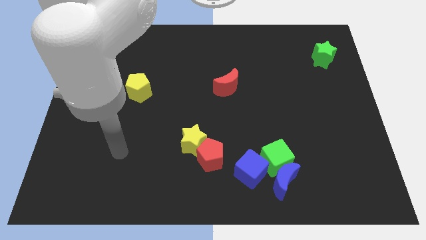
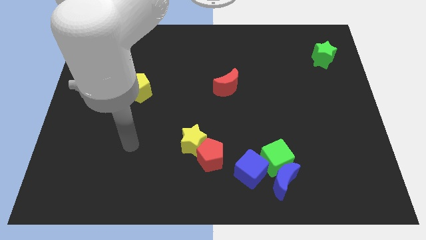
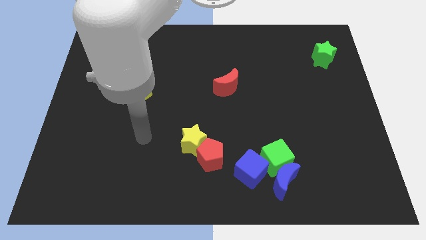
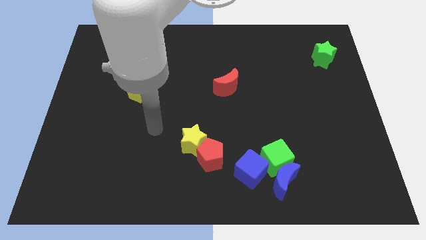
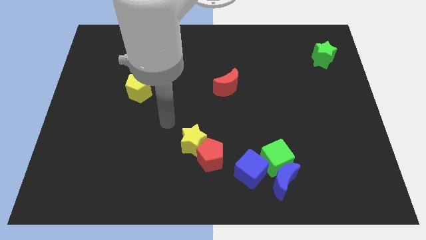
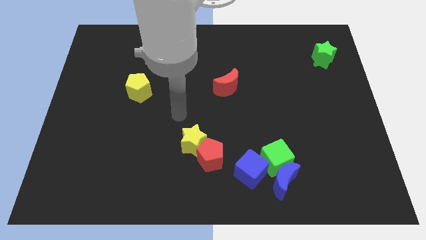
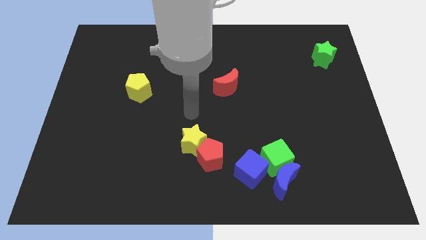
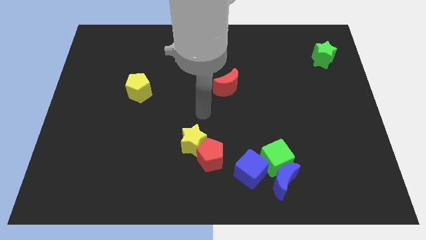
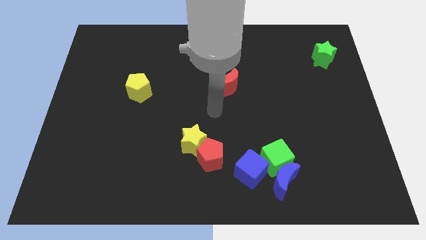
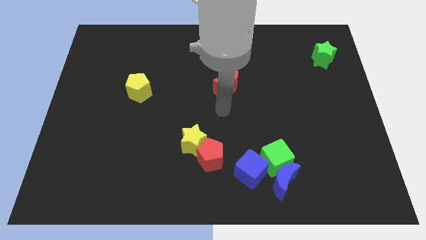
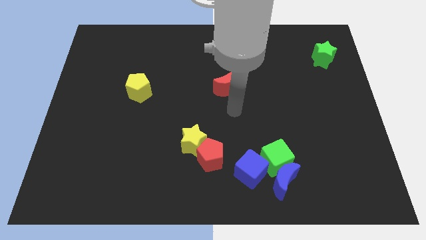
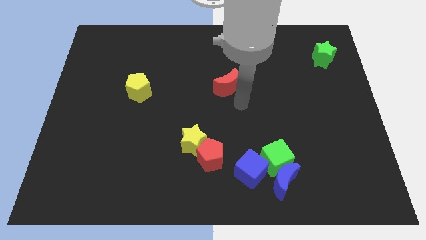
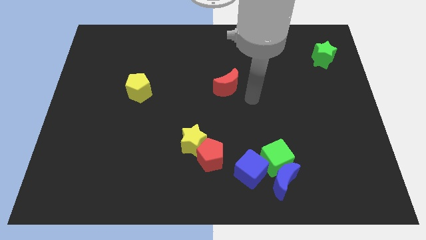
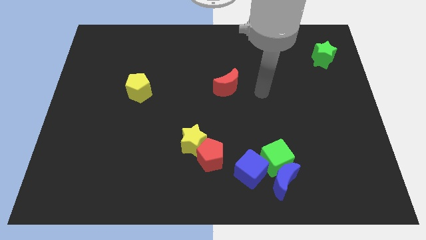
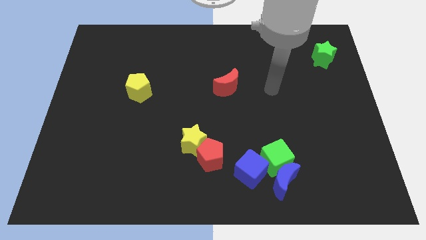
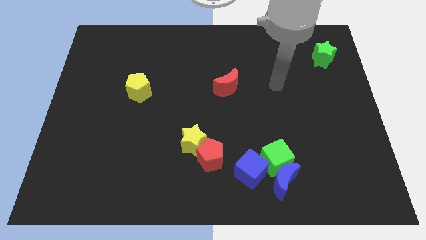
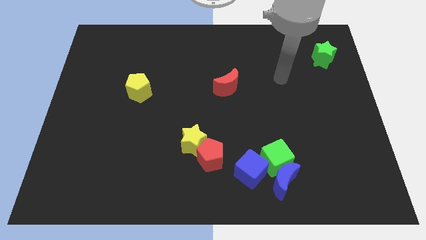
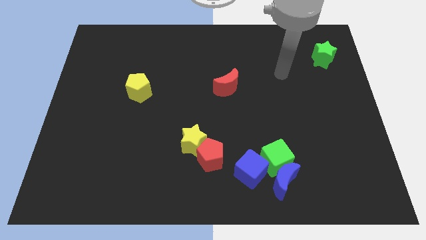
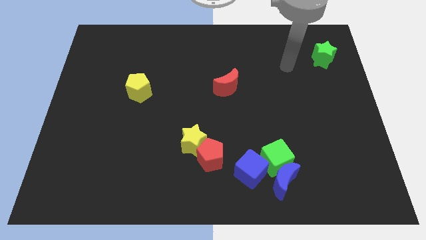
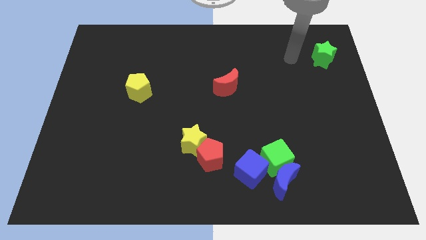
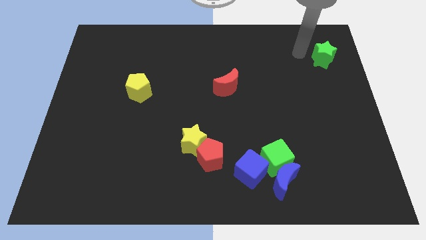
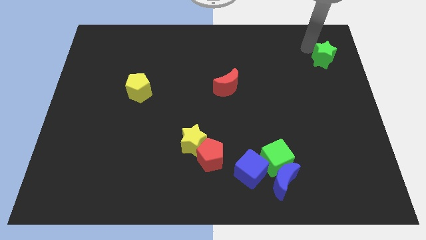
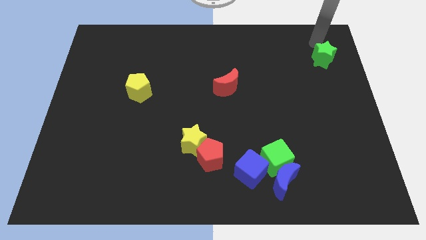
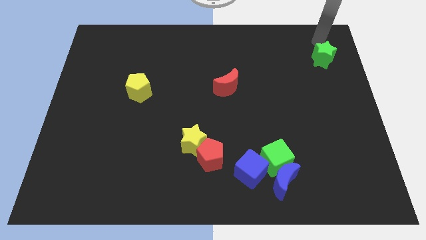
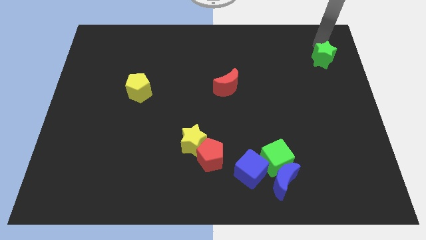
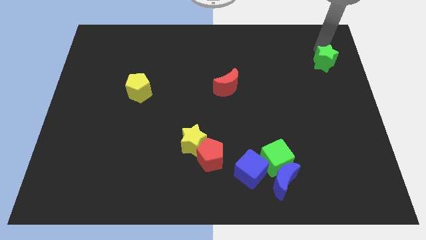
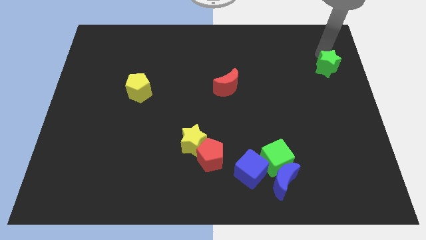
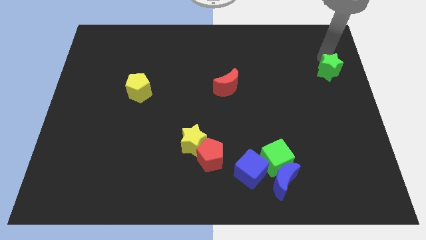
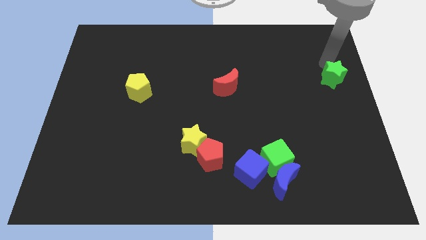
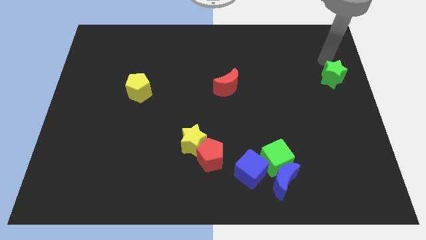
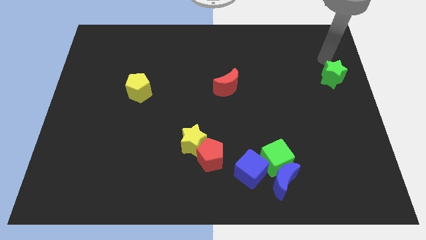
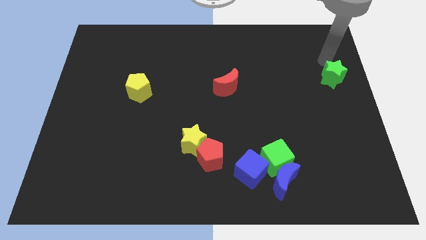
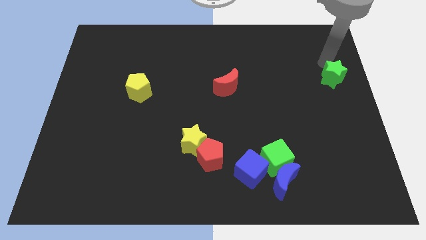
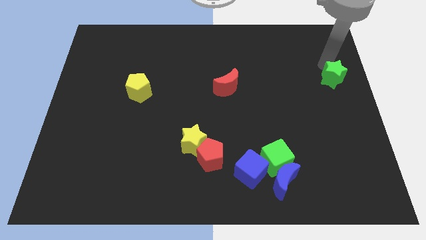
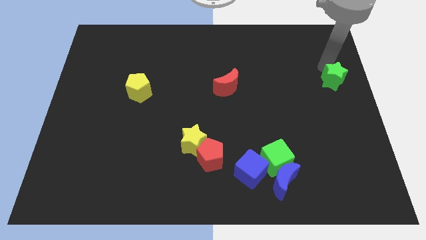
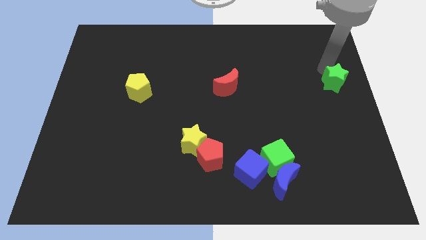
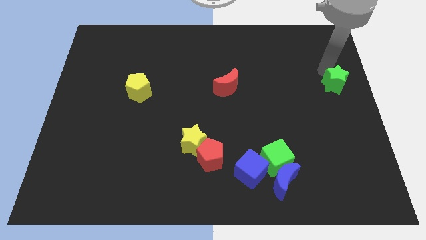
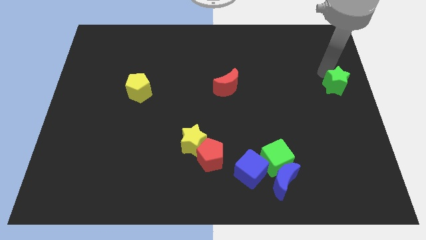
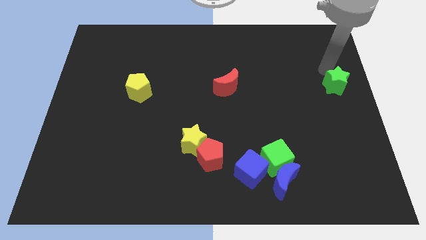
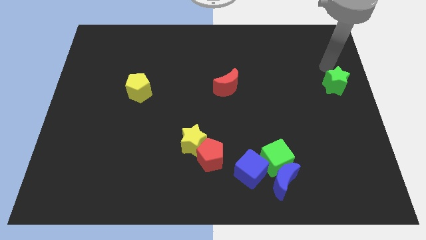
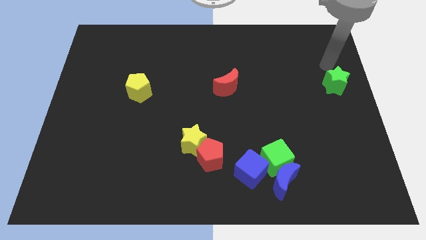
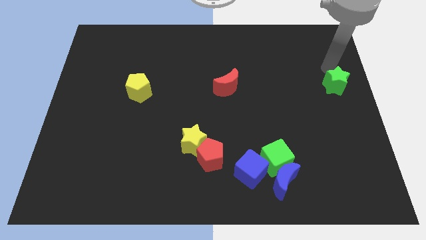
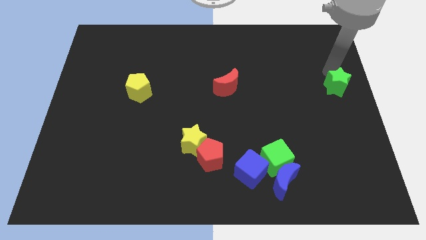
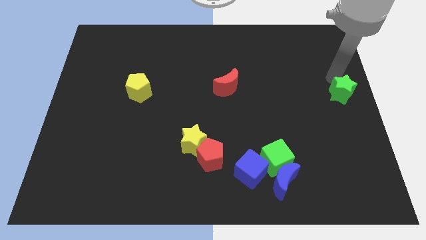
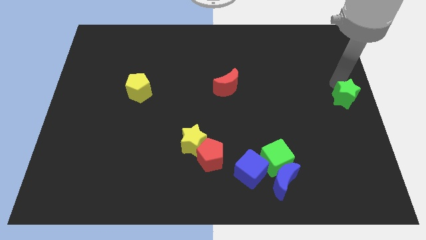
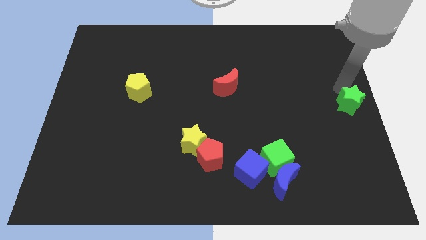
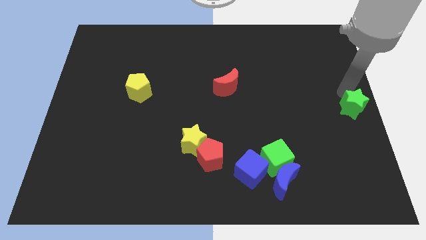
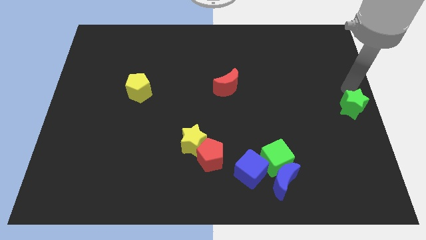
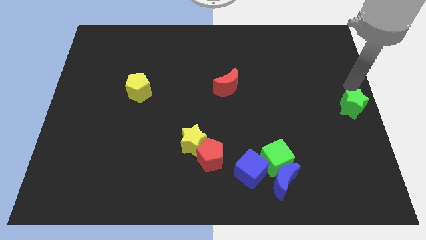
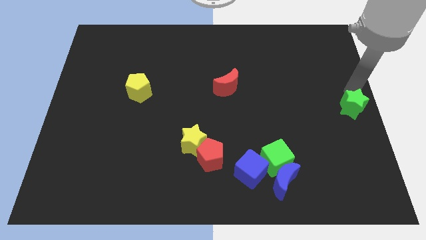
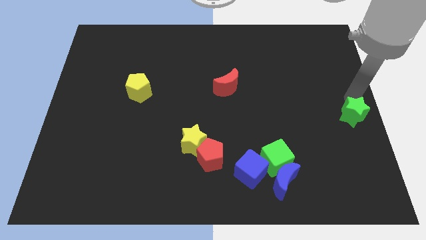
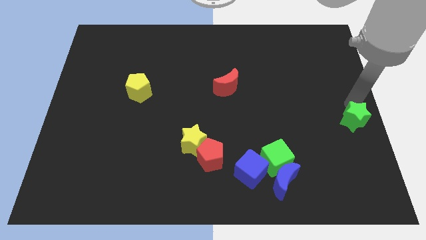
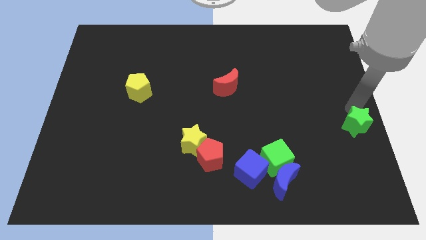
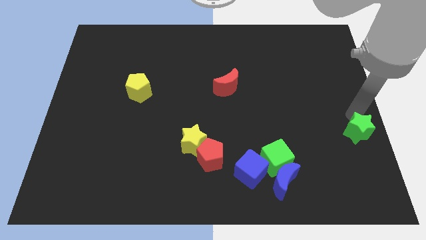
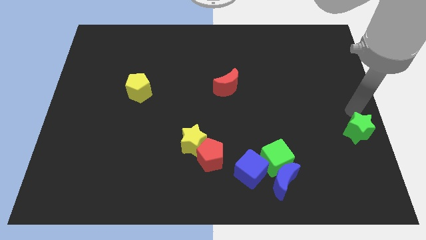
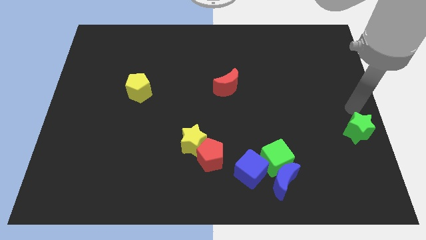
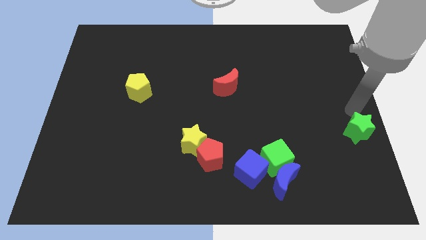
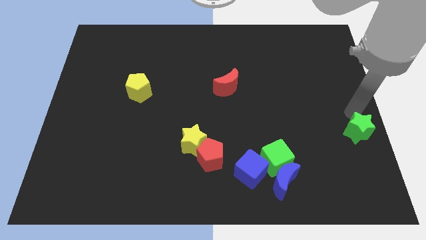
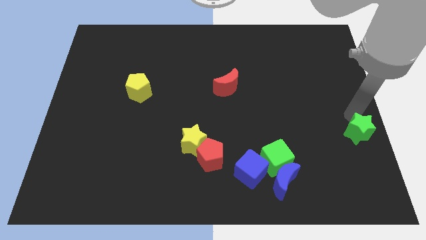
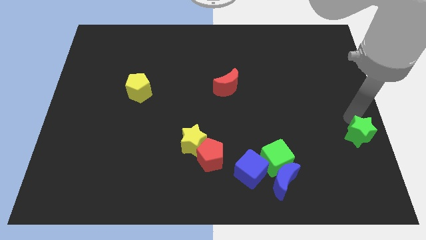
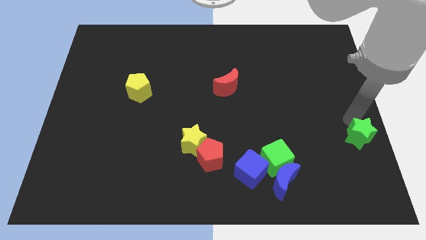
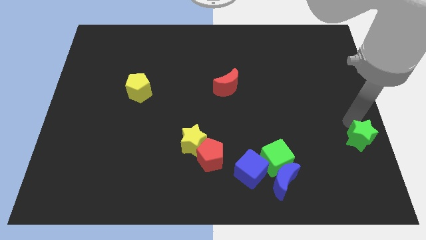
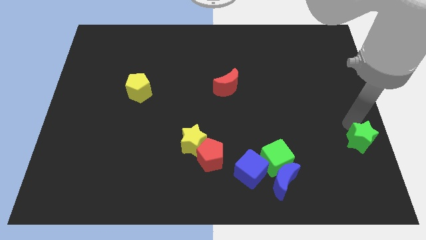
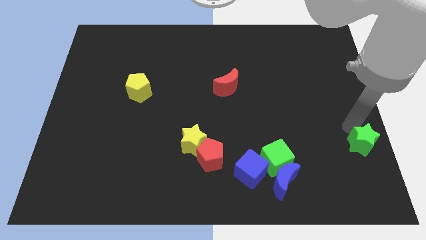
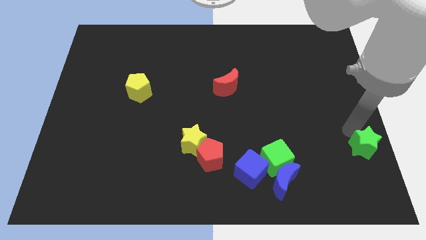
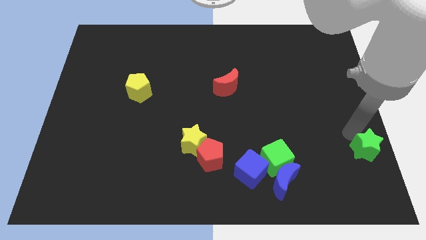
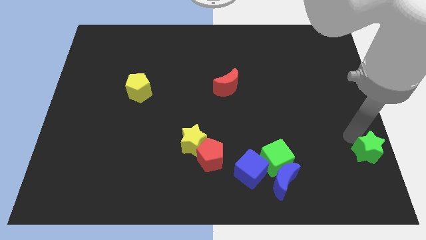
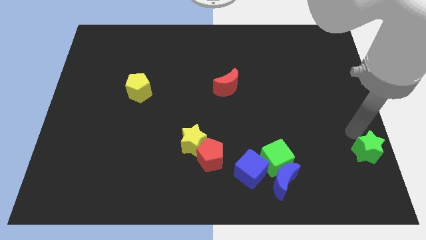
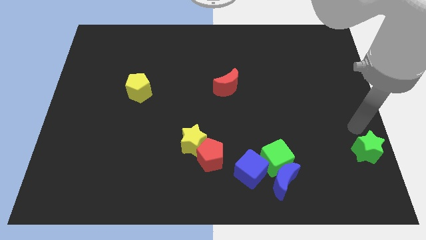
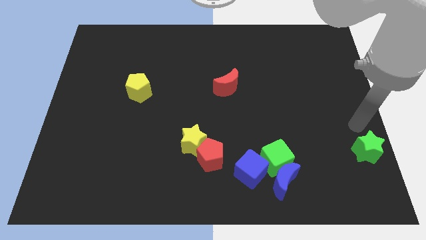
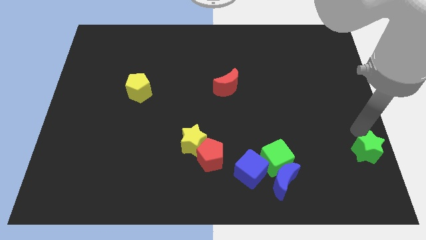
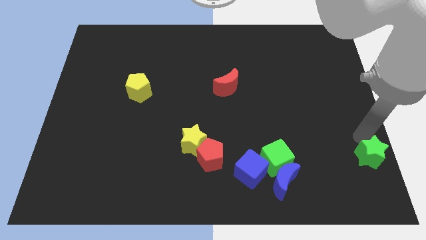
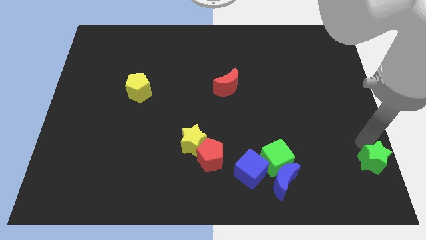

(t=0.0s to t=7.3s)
slide the green star to the bottom right of the board
